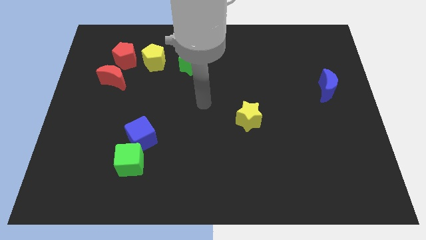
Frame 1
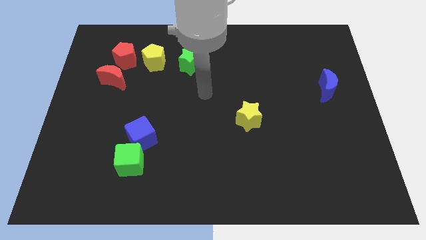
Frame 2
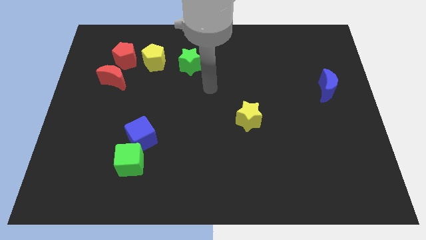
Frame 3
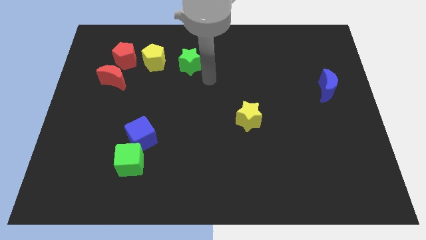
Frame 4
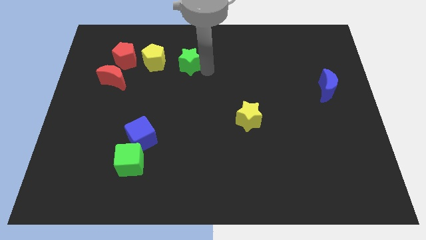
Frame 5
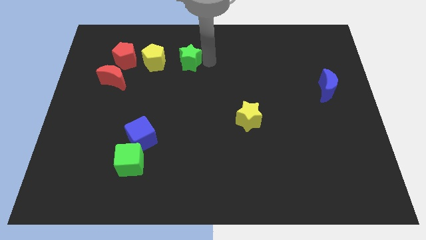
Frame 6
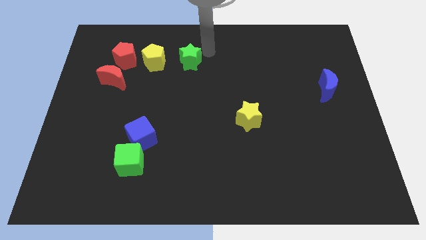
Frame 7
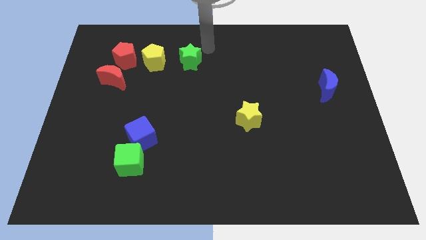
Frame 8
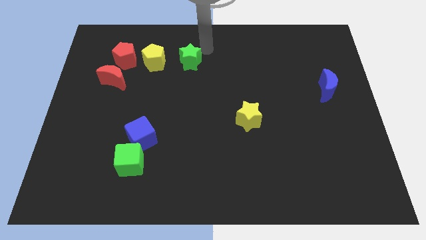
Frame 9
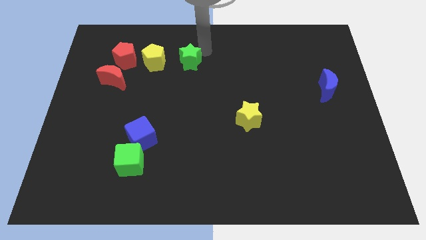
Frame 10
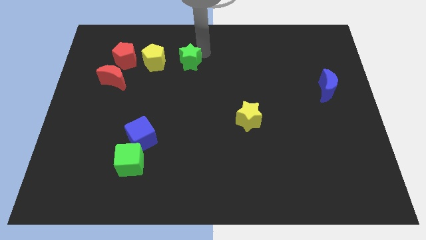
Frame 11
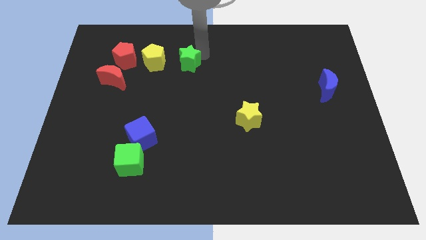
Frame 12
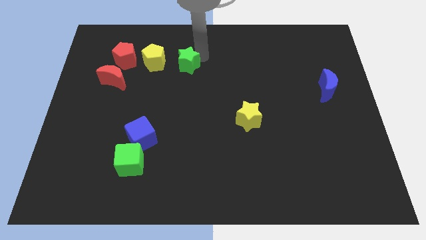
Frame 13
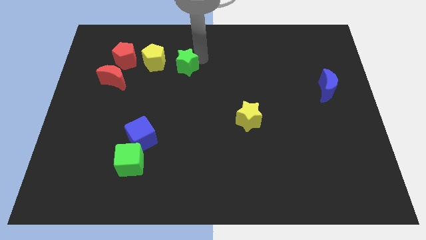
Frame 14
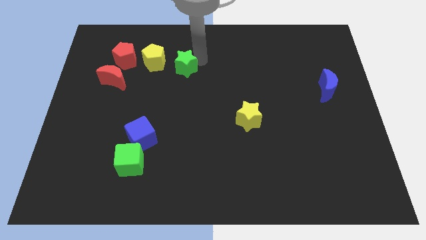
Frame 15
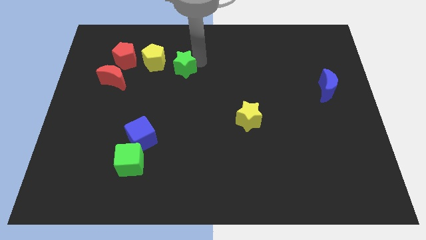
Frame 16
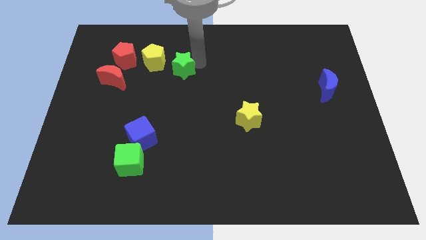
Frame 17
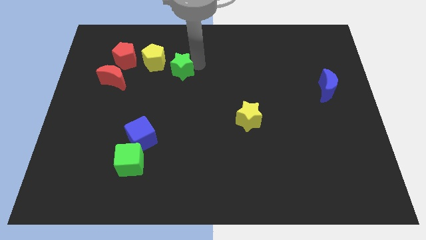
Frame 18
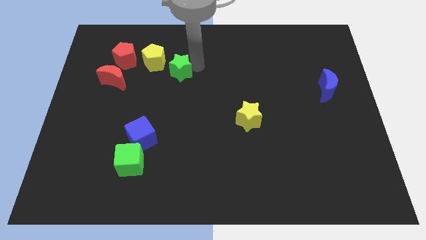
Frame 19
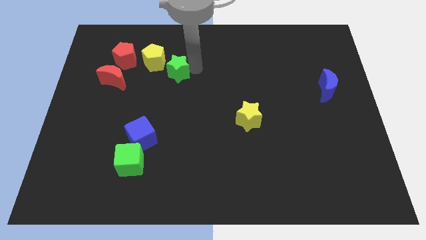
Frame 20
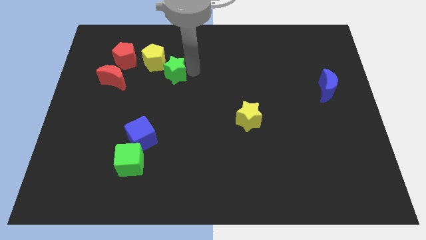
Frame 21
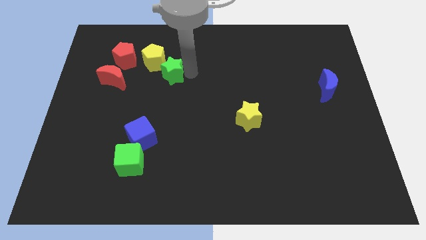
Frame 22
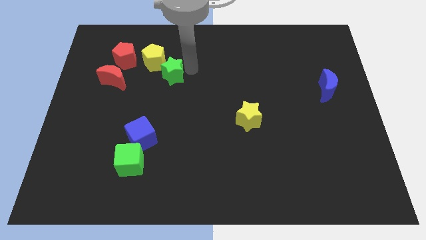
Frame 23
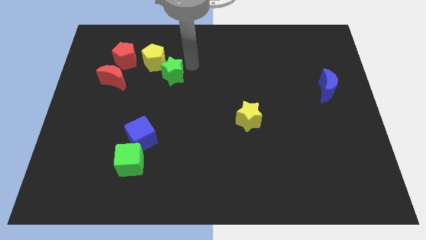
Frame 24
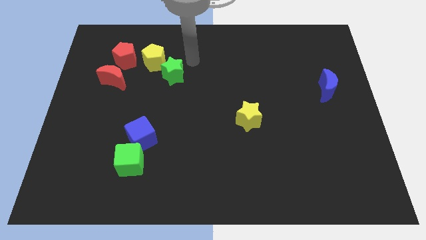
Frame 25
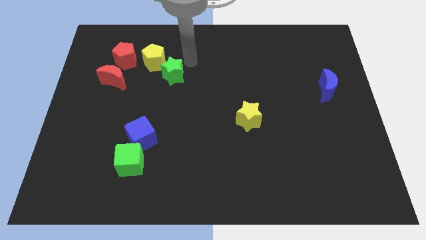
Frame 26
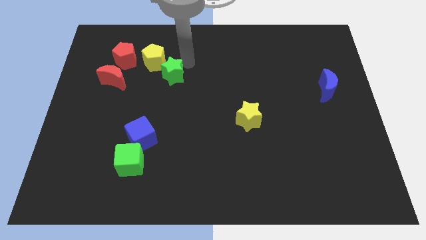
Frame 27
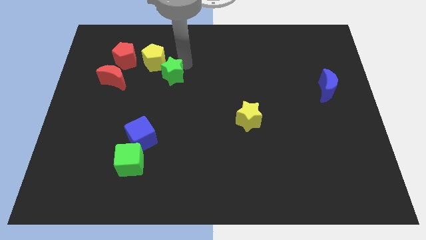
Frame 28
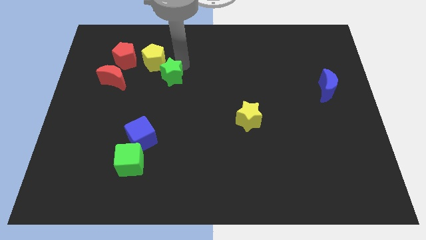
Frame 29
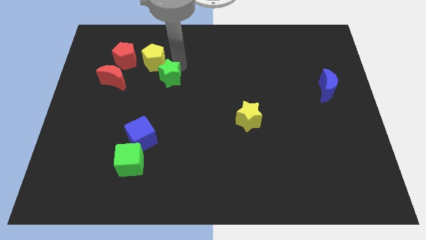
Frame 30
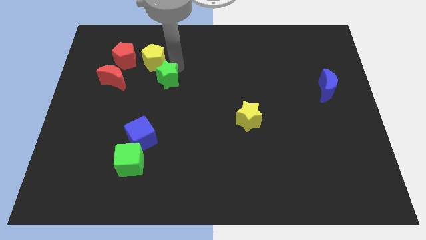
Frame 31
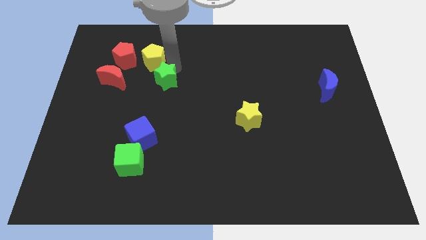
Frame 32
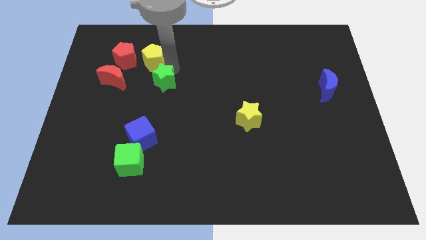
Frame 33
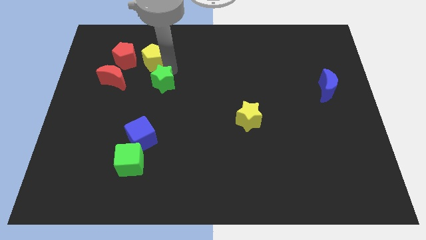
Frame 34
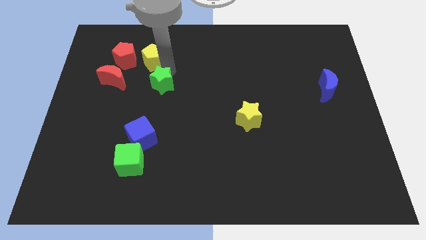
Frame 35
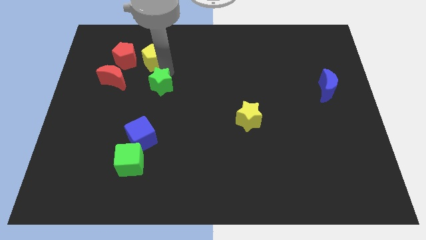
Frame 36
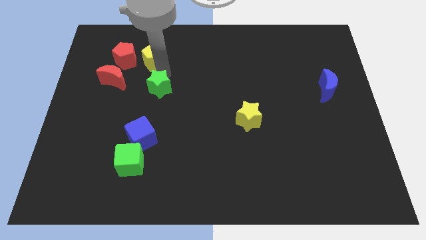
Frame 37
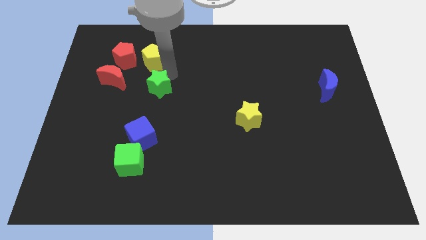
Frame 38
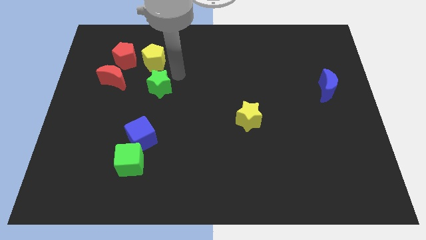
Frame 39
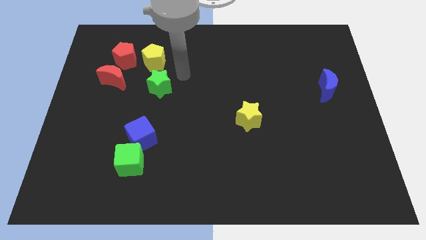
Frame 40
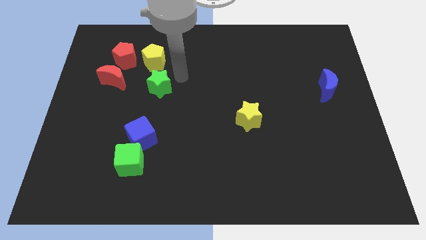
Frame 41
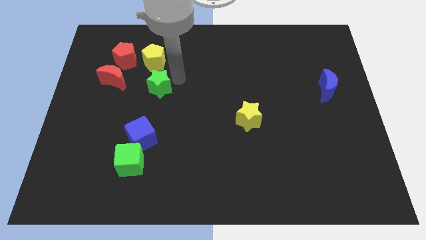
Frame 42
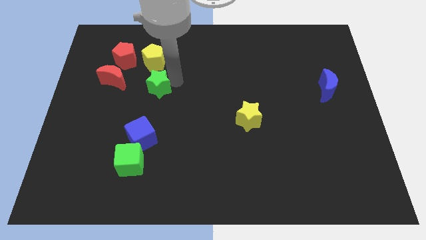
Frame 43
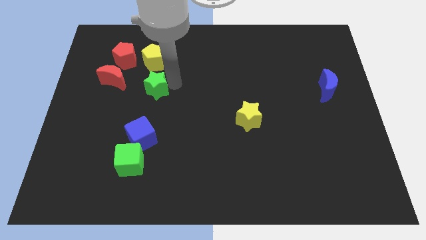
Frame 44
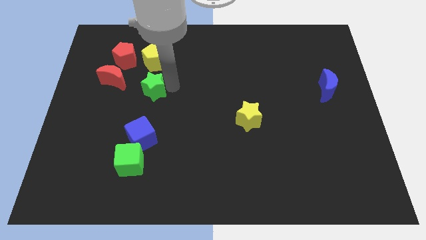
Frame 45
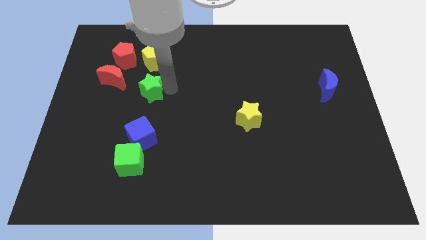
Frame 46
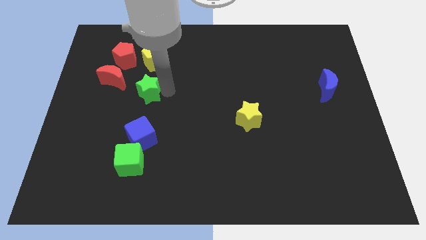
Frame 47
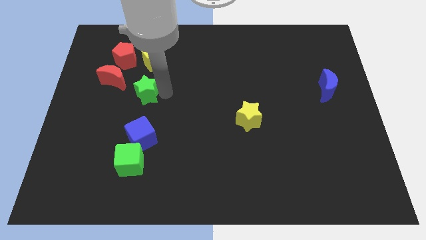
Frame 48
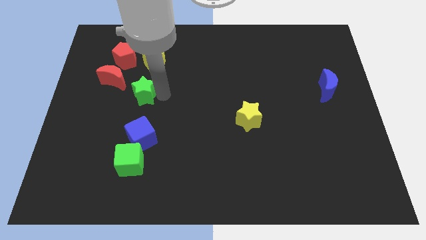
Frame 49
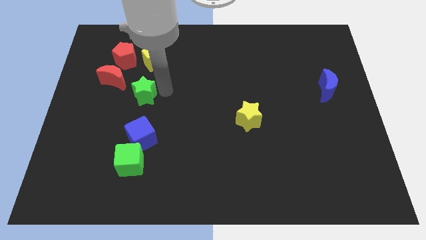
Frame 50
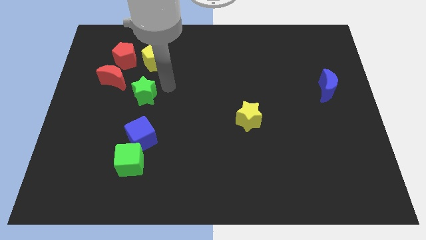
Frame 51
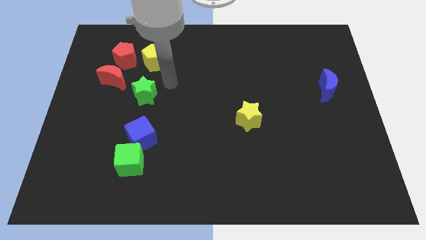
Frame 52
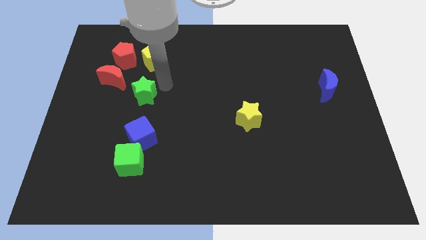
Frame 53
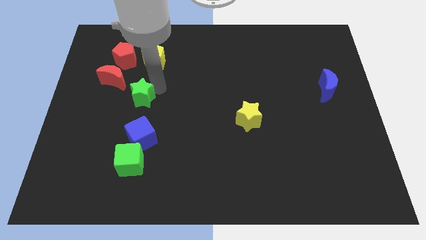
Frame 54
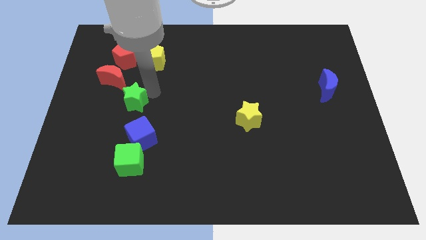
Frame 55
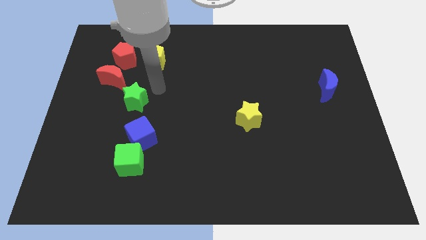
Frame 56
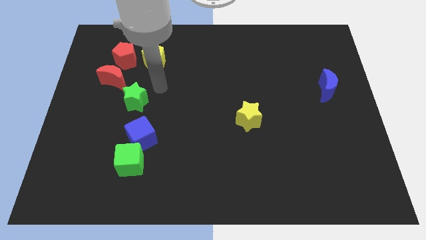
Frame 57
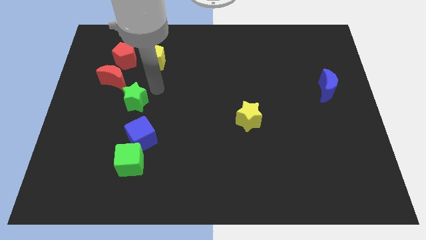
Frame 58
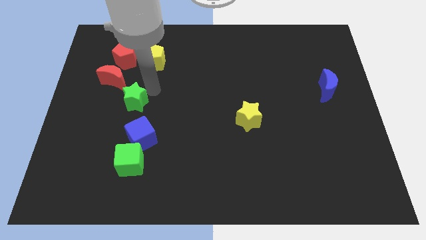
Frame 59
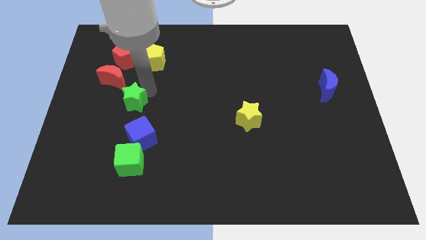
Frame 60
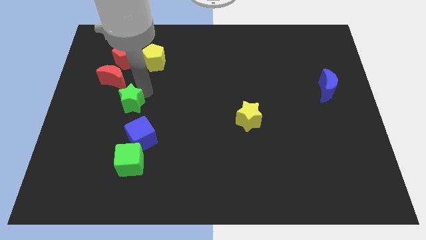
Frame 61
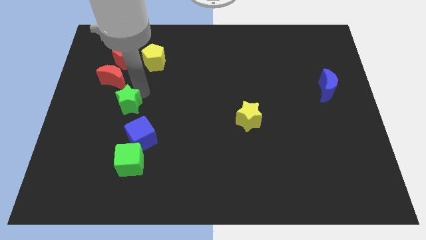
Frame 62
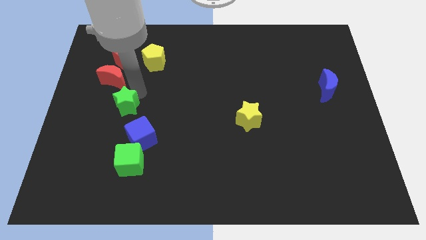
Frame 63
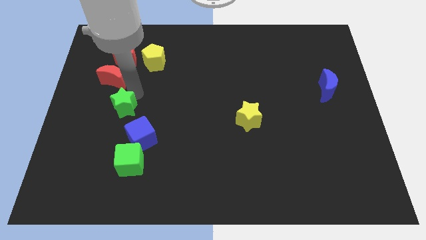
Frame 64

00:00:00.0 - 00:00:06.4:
push the green star downwards and to the left

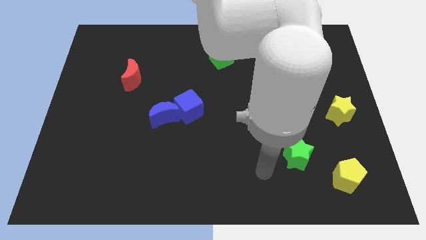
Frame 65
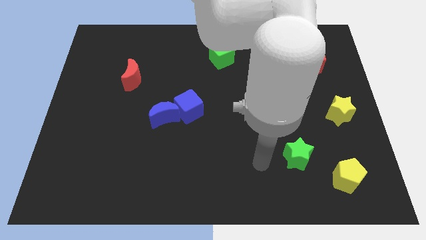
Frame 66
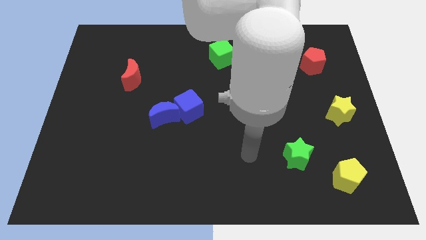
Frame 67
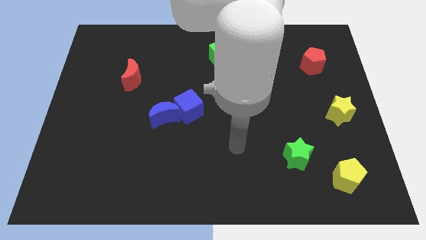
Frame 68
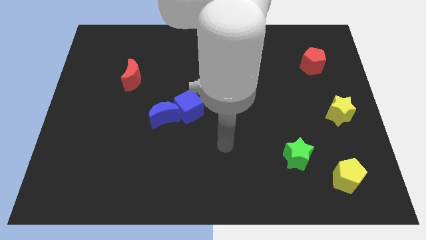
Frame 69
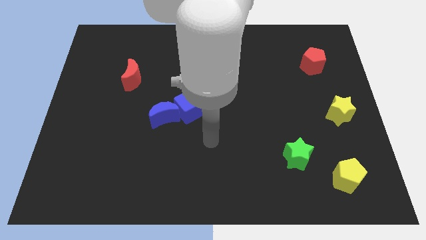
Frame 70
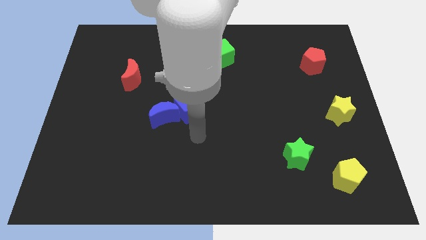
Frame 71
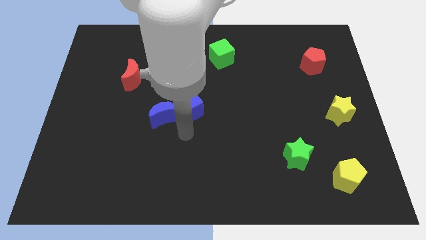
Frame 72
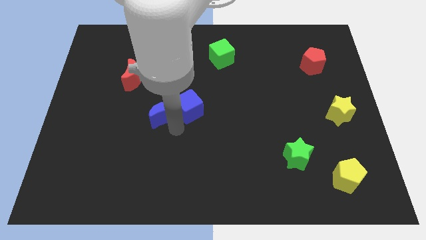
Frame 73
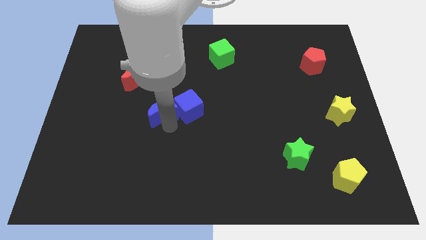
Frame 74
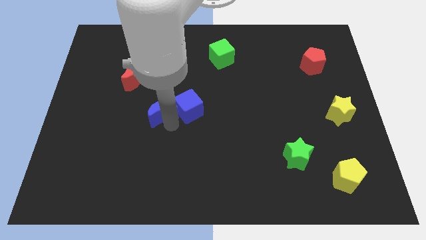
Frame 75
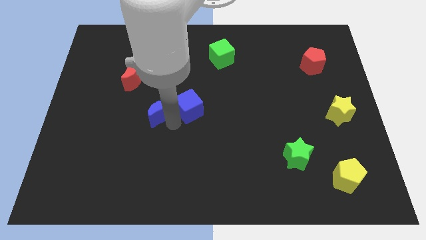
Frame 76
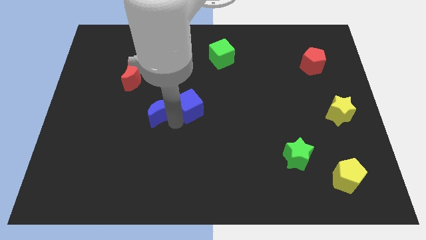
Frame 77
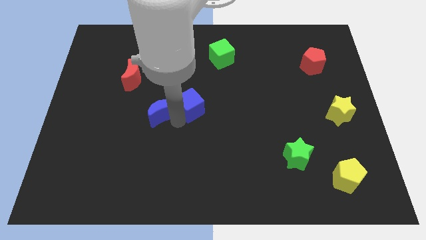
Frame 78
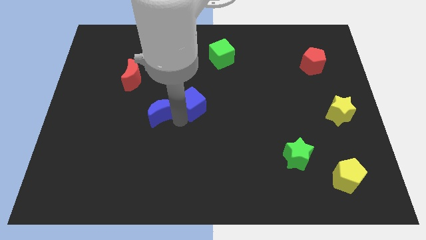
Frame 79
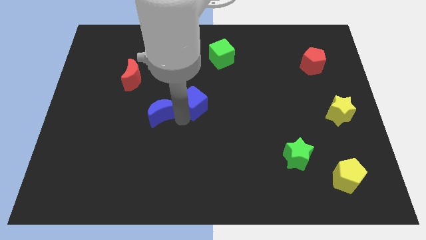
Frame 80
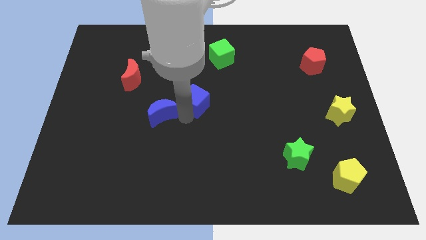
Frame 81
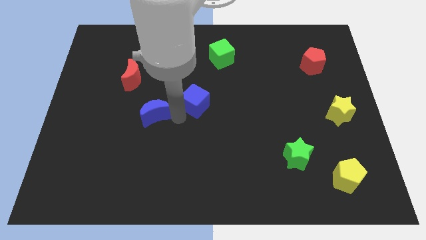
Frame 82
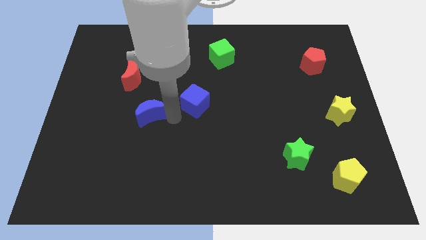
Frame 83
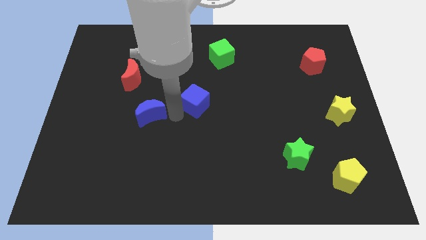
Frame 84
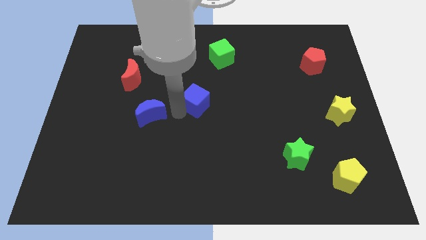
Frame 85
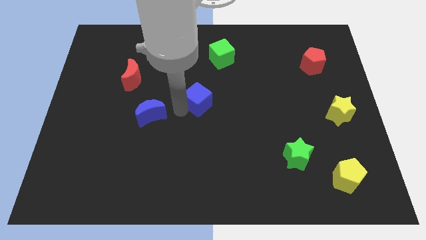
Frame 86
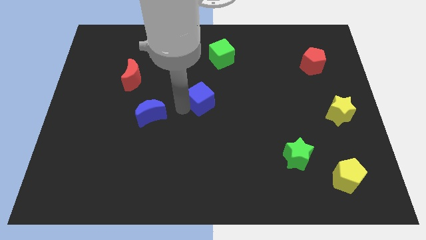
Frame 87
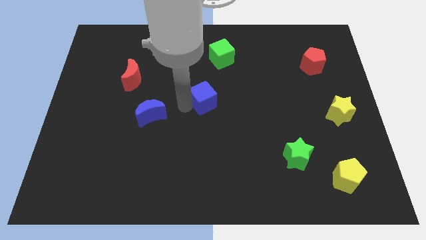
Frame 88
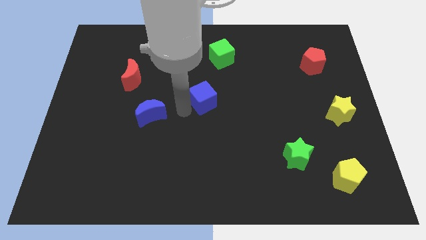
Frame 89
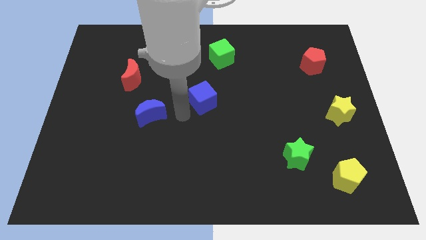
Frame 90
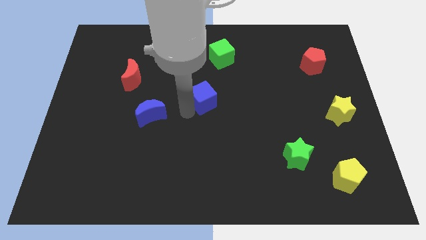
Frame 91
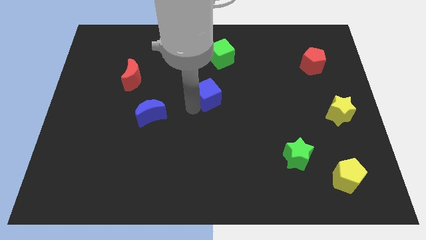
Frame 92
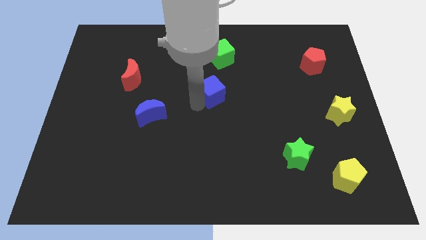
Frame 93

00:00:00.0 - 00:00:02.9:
push the blue cube a little bit up and to the right diagonally
